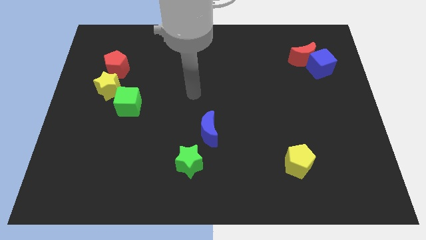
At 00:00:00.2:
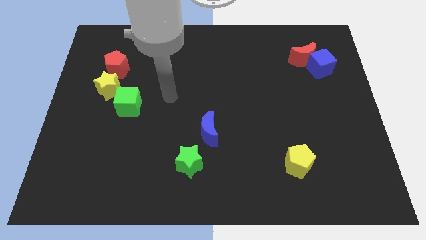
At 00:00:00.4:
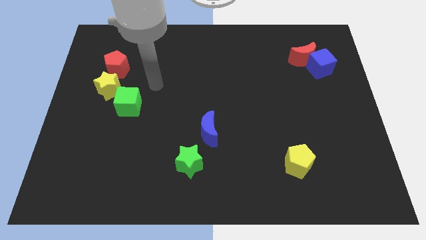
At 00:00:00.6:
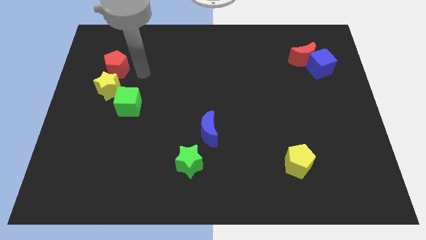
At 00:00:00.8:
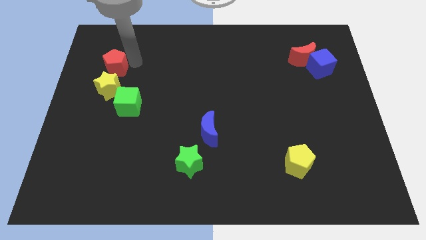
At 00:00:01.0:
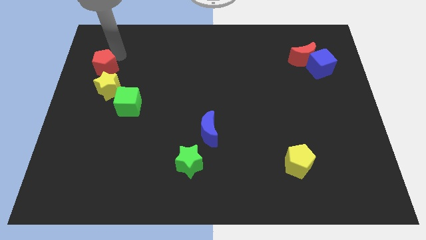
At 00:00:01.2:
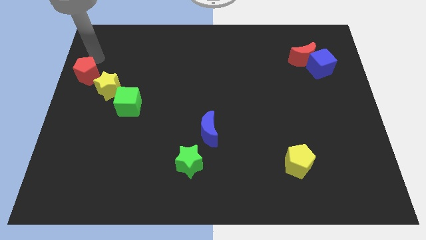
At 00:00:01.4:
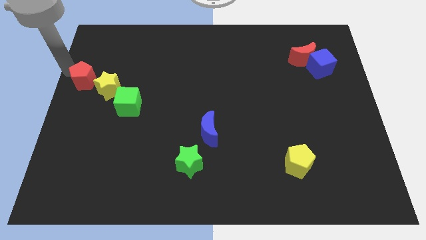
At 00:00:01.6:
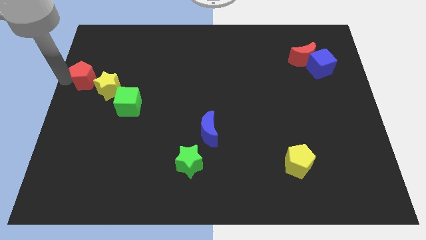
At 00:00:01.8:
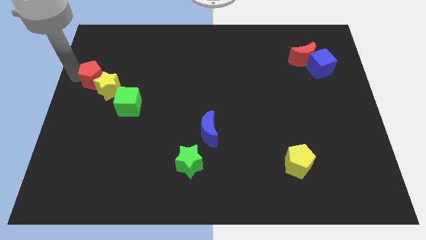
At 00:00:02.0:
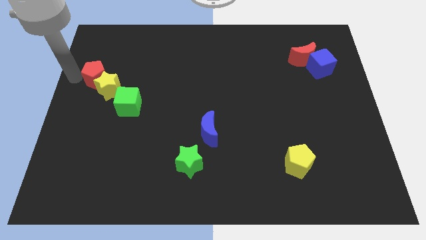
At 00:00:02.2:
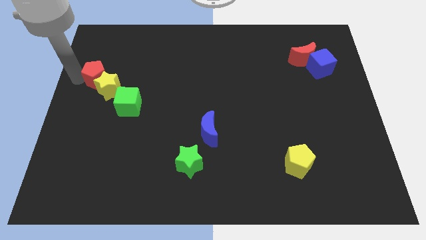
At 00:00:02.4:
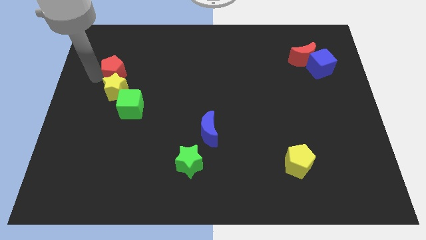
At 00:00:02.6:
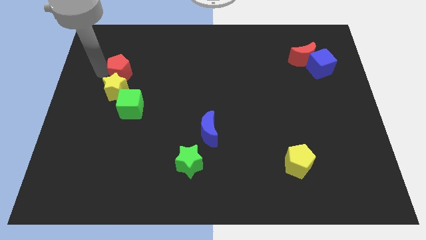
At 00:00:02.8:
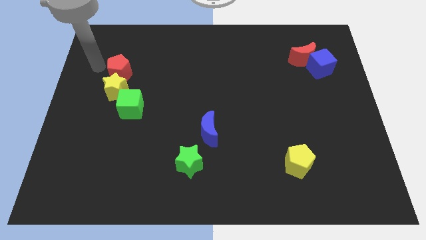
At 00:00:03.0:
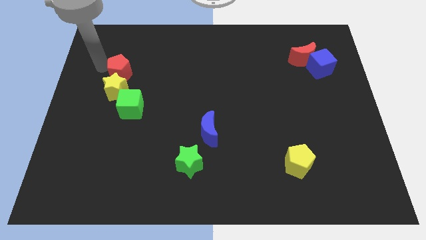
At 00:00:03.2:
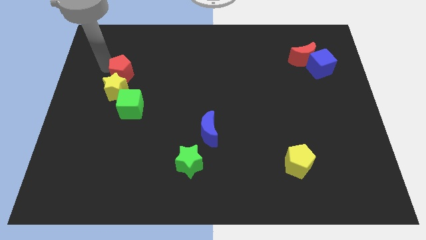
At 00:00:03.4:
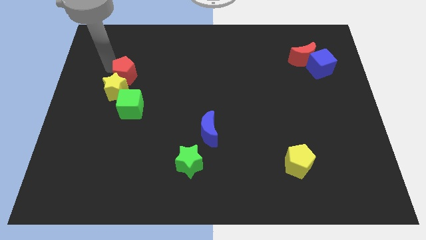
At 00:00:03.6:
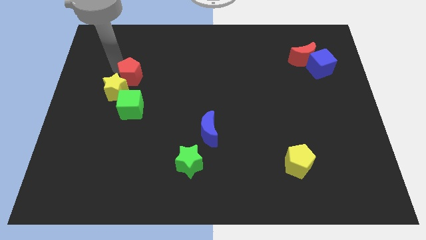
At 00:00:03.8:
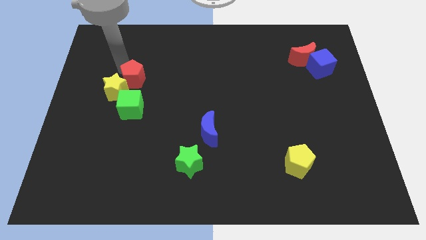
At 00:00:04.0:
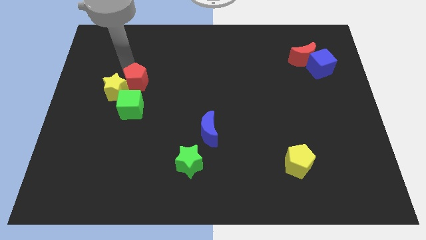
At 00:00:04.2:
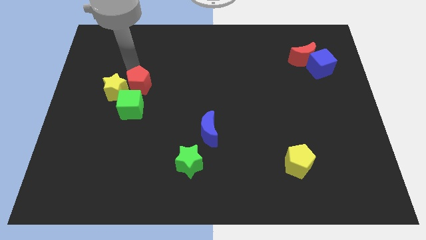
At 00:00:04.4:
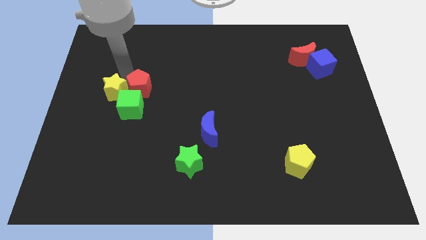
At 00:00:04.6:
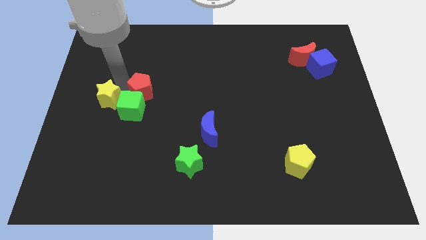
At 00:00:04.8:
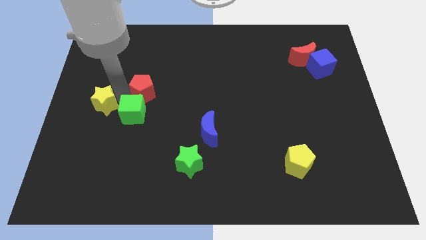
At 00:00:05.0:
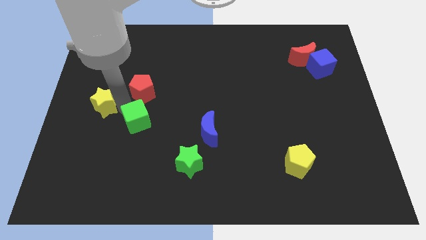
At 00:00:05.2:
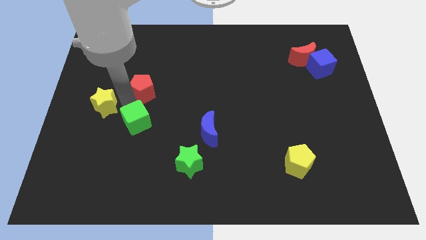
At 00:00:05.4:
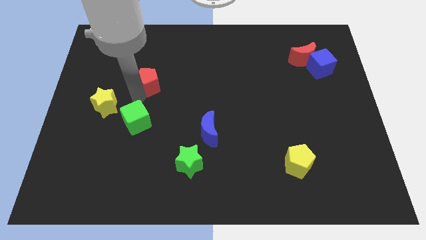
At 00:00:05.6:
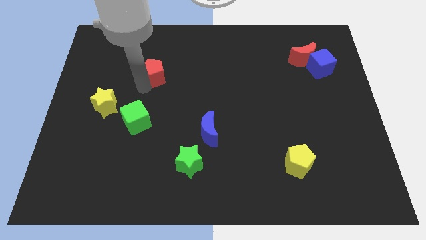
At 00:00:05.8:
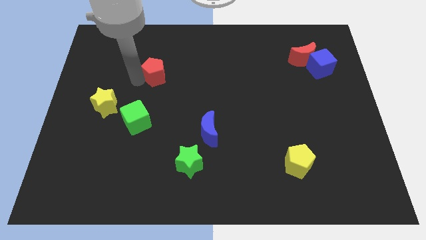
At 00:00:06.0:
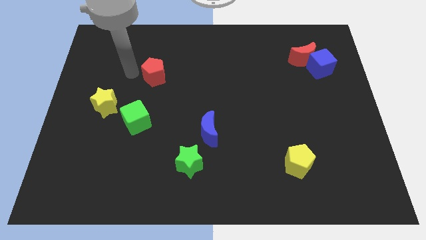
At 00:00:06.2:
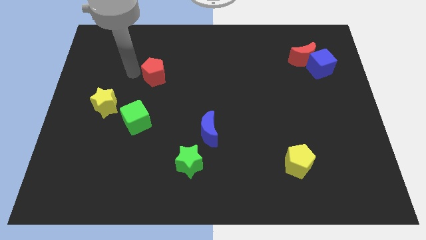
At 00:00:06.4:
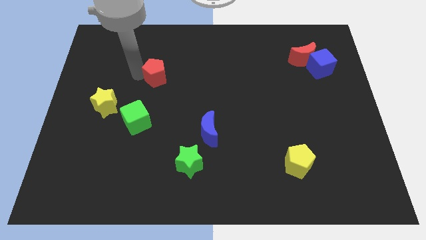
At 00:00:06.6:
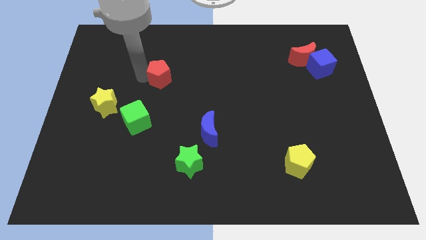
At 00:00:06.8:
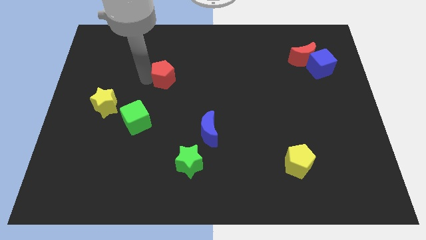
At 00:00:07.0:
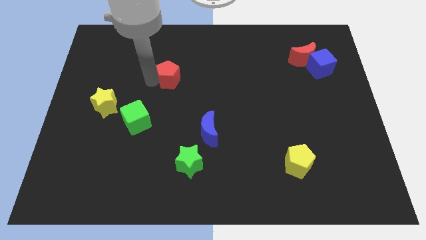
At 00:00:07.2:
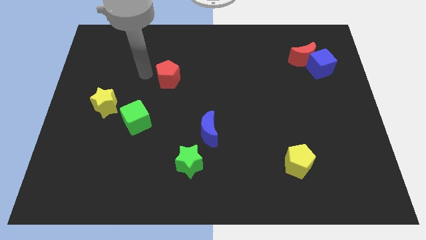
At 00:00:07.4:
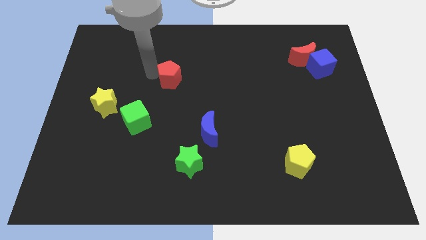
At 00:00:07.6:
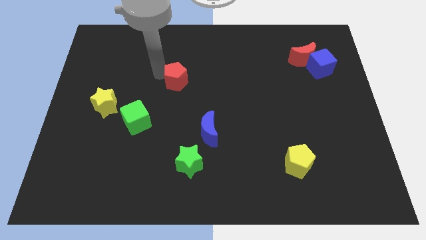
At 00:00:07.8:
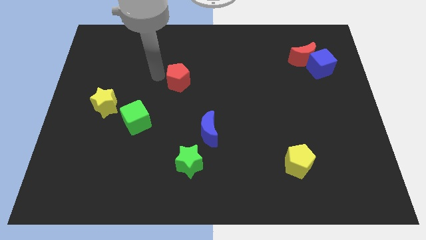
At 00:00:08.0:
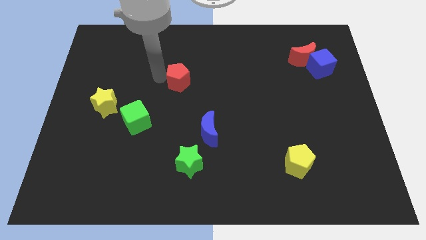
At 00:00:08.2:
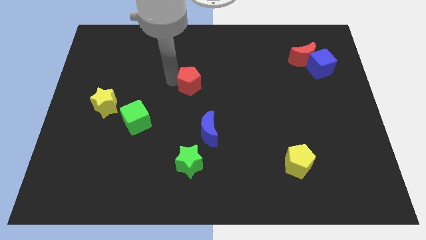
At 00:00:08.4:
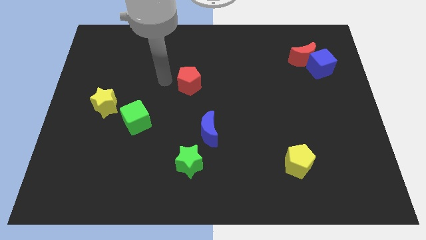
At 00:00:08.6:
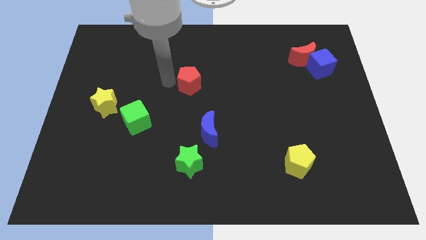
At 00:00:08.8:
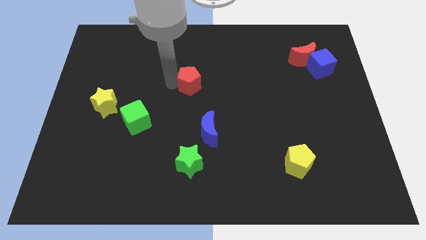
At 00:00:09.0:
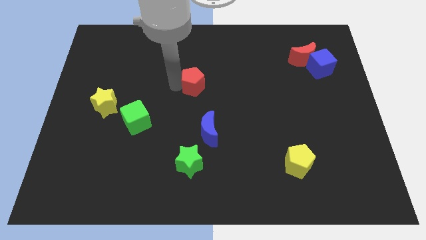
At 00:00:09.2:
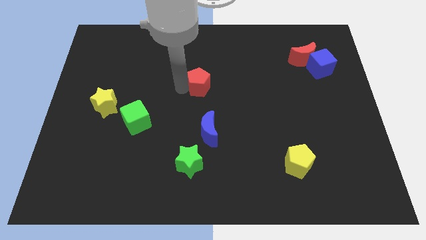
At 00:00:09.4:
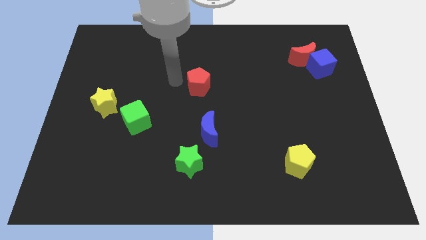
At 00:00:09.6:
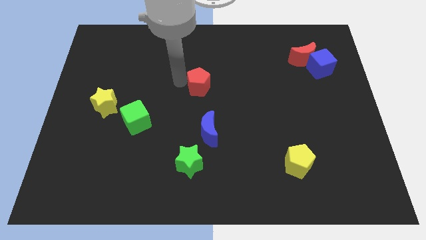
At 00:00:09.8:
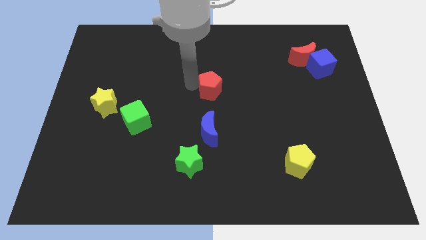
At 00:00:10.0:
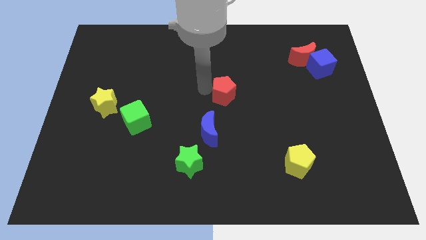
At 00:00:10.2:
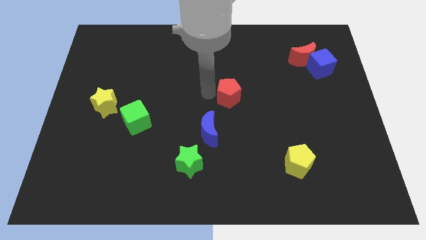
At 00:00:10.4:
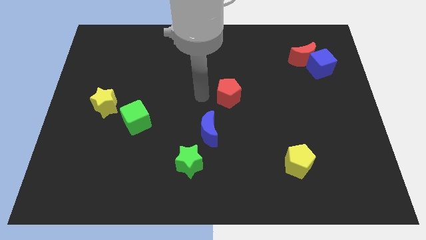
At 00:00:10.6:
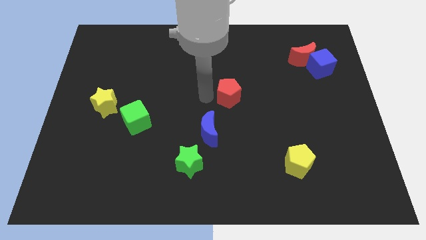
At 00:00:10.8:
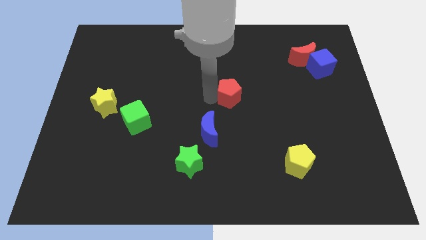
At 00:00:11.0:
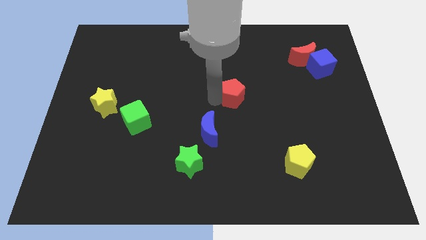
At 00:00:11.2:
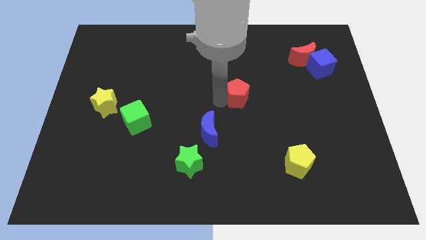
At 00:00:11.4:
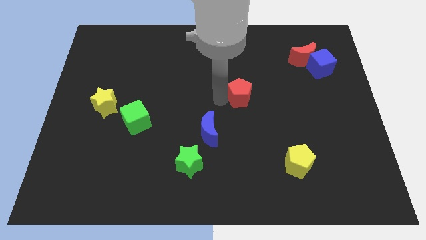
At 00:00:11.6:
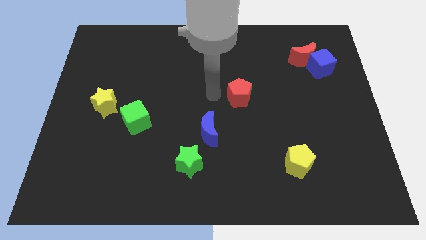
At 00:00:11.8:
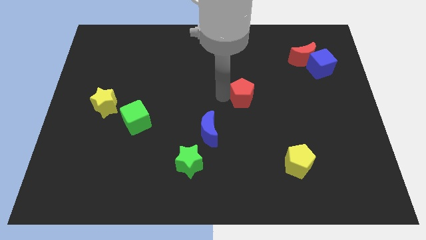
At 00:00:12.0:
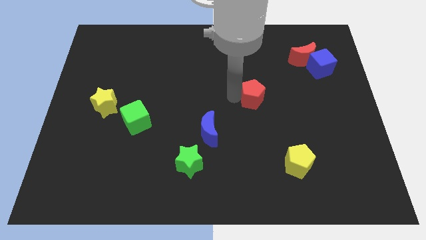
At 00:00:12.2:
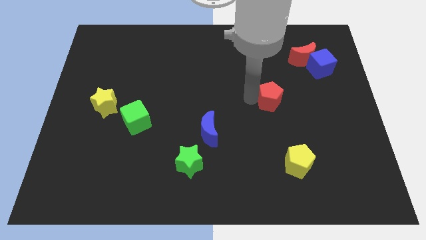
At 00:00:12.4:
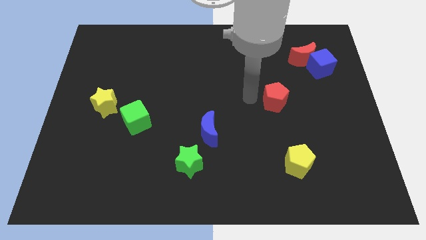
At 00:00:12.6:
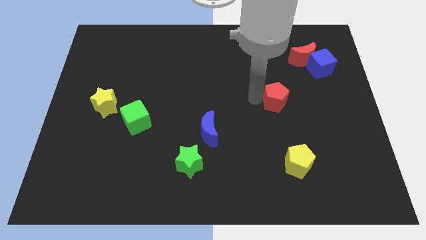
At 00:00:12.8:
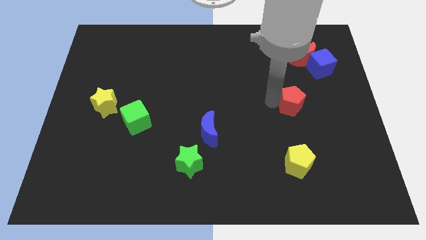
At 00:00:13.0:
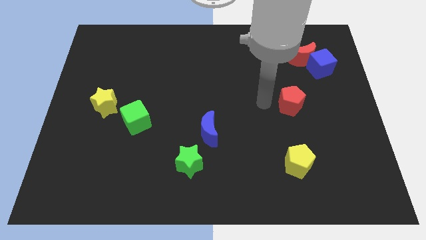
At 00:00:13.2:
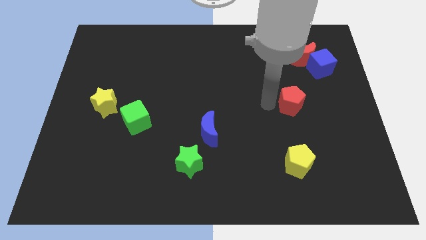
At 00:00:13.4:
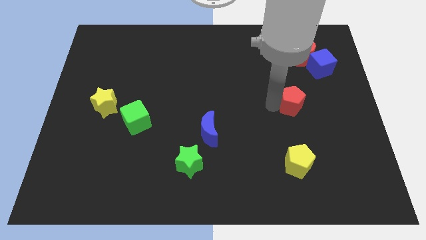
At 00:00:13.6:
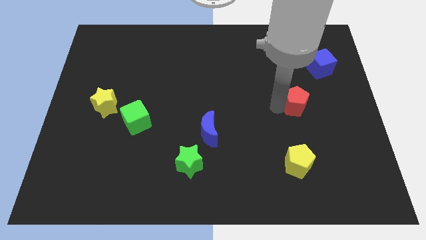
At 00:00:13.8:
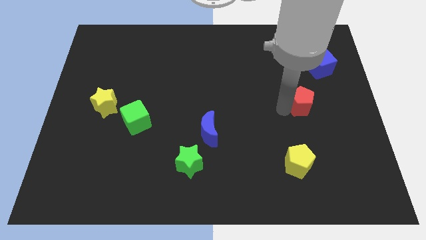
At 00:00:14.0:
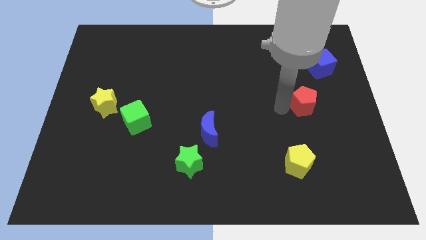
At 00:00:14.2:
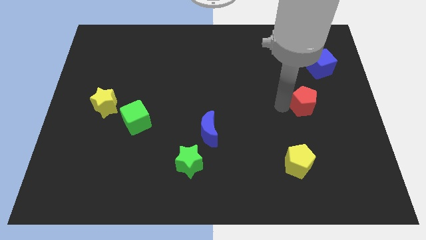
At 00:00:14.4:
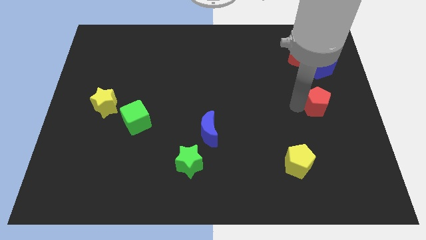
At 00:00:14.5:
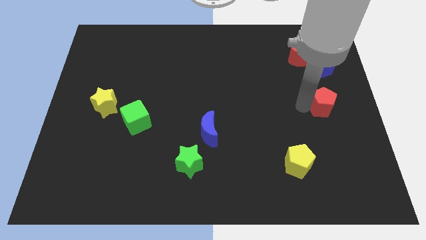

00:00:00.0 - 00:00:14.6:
move the red pentagon to the right side
